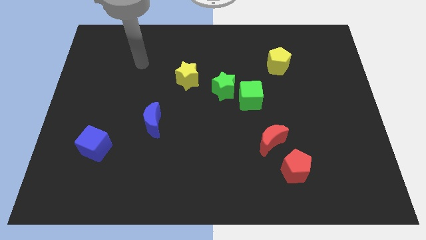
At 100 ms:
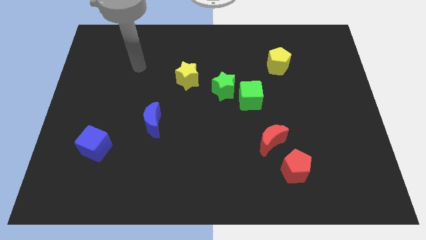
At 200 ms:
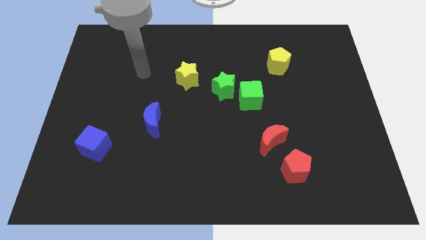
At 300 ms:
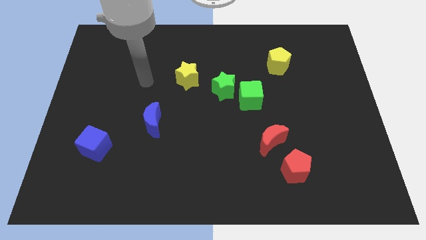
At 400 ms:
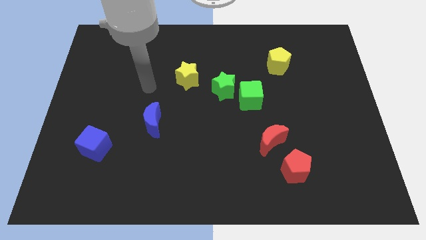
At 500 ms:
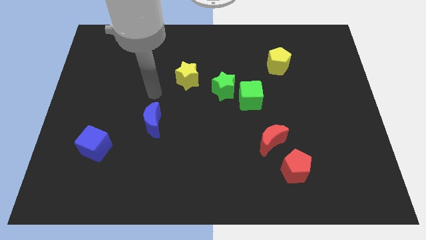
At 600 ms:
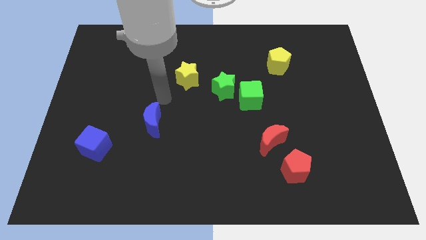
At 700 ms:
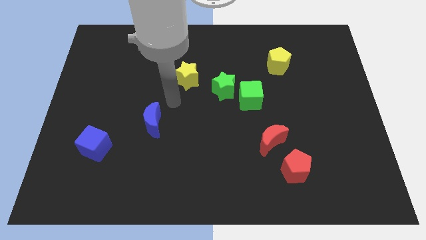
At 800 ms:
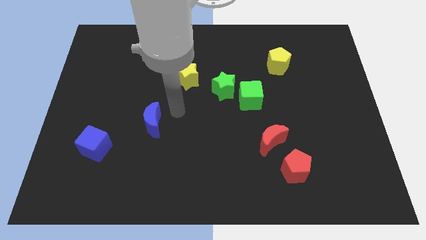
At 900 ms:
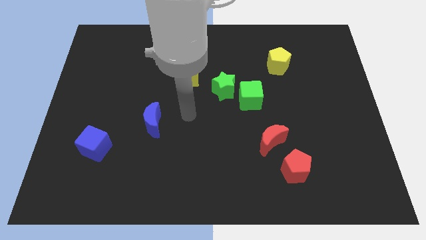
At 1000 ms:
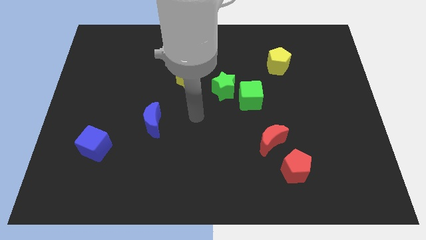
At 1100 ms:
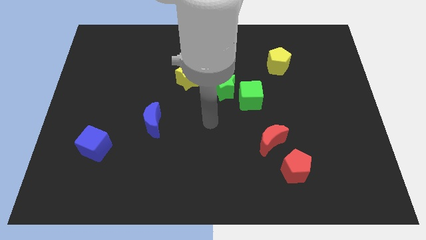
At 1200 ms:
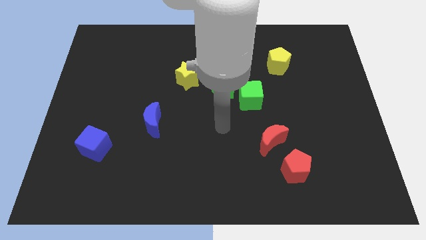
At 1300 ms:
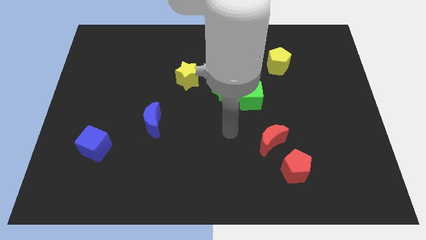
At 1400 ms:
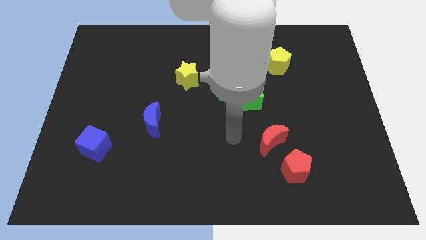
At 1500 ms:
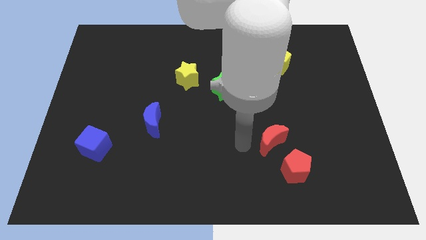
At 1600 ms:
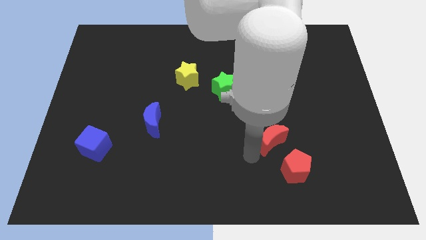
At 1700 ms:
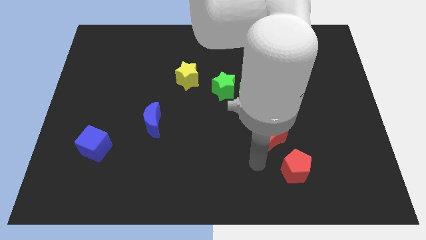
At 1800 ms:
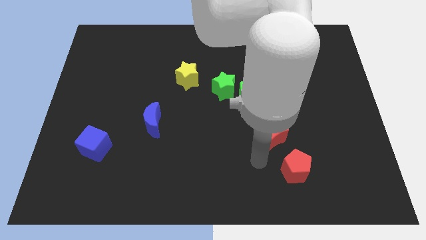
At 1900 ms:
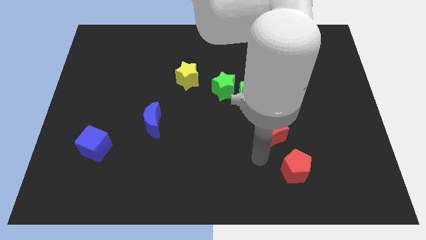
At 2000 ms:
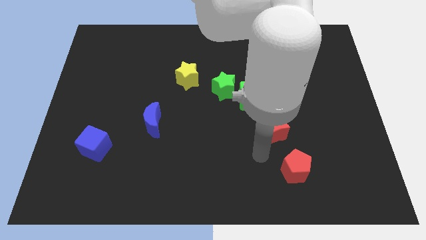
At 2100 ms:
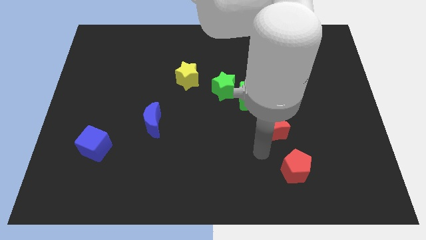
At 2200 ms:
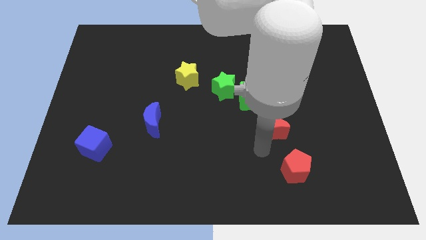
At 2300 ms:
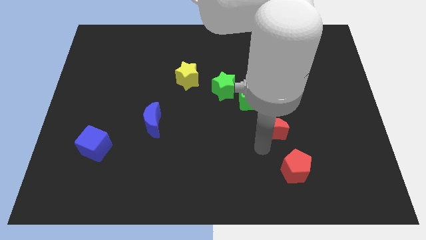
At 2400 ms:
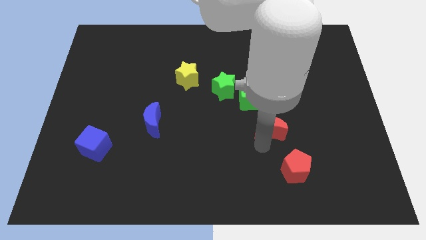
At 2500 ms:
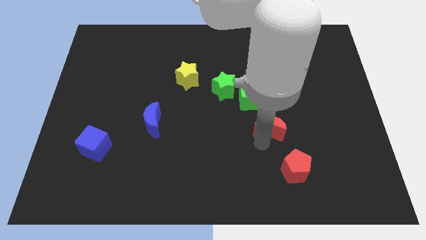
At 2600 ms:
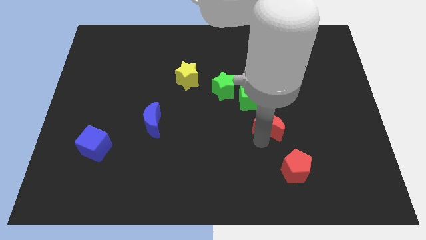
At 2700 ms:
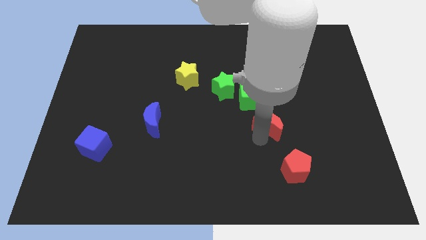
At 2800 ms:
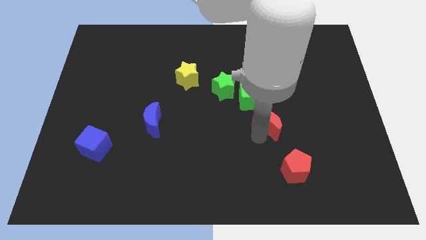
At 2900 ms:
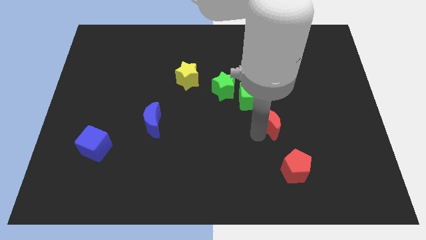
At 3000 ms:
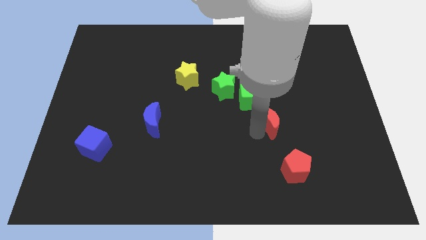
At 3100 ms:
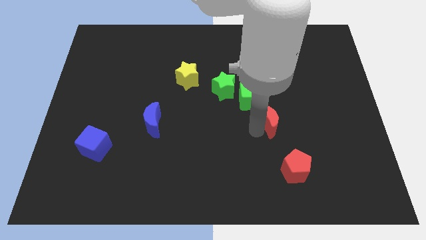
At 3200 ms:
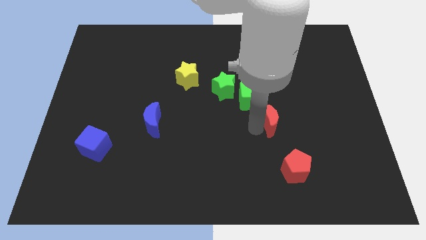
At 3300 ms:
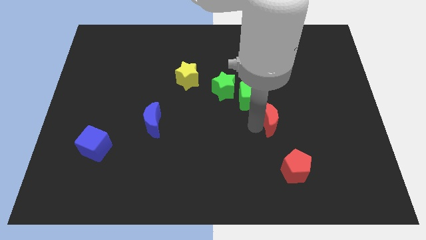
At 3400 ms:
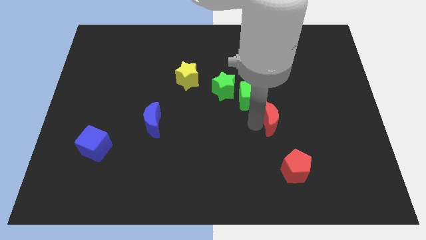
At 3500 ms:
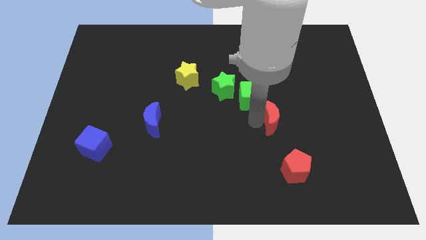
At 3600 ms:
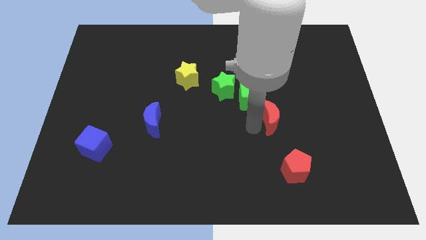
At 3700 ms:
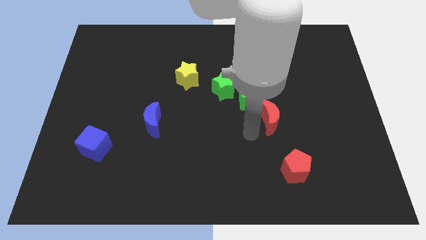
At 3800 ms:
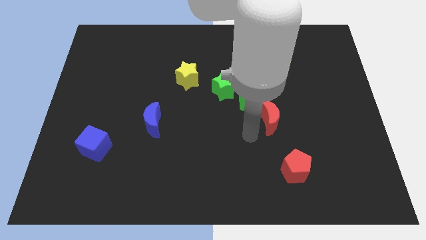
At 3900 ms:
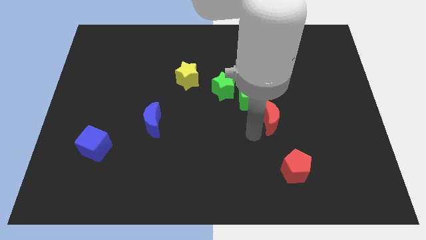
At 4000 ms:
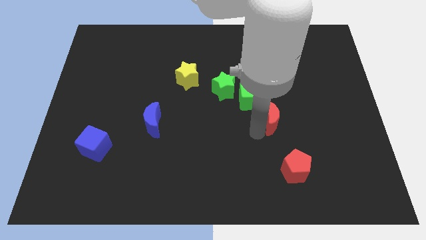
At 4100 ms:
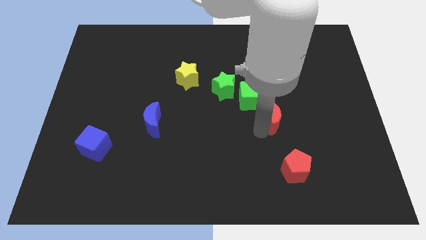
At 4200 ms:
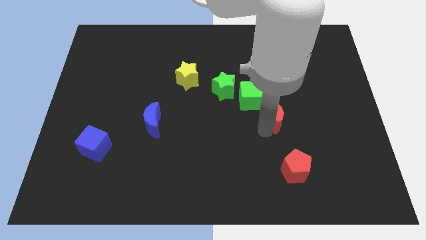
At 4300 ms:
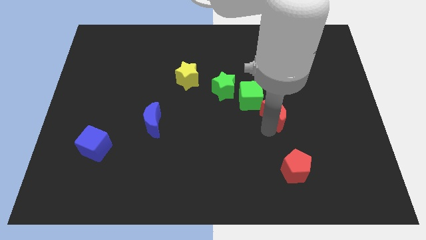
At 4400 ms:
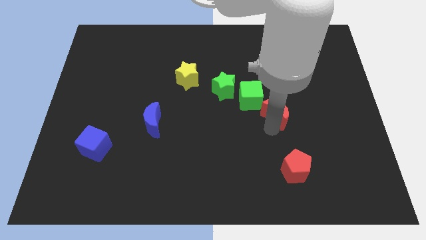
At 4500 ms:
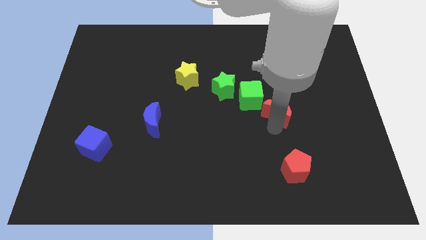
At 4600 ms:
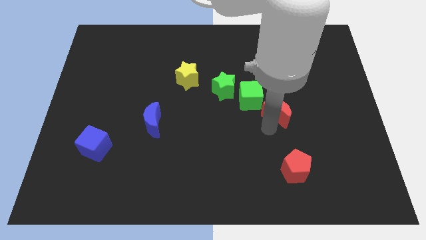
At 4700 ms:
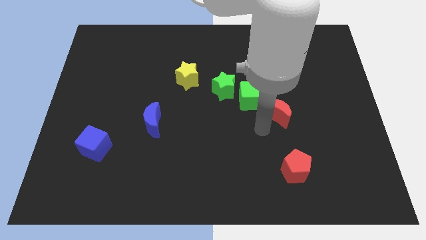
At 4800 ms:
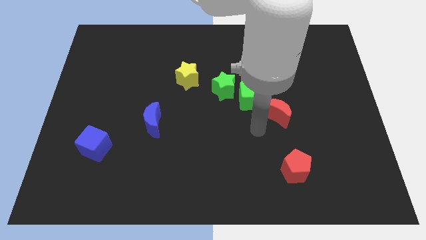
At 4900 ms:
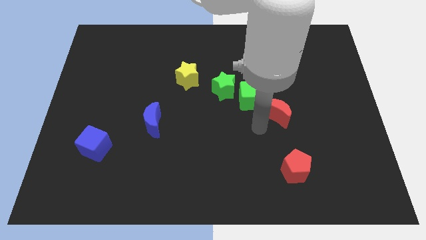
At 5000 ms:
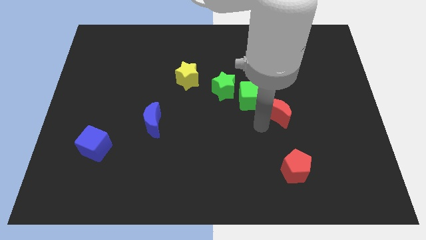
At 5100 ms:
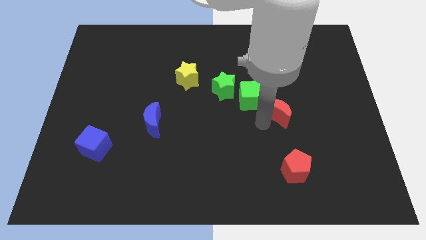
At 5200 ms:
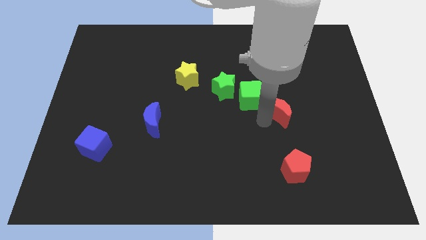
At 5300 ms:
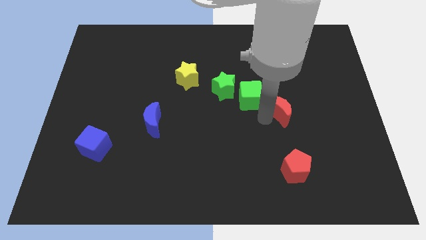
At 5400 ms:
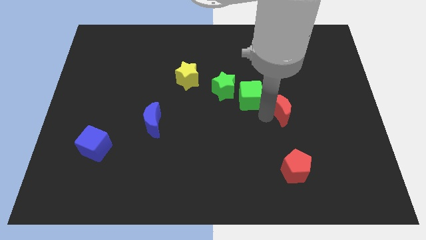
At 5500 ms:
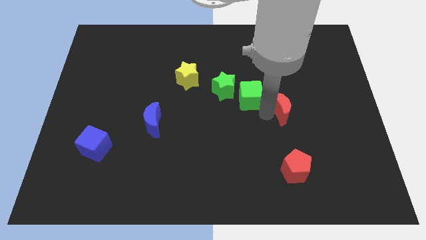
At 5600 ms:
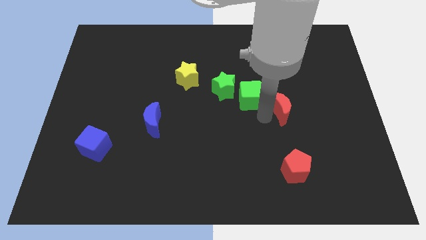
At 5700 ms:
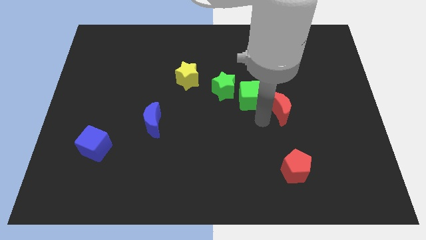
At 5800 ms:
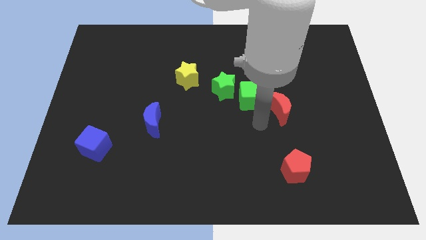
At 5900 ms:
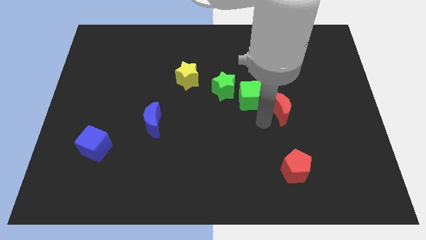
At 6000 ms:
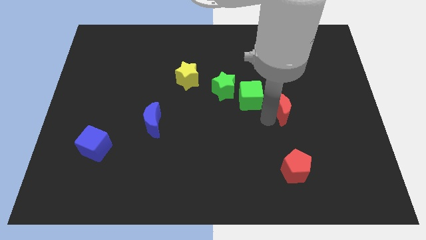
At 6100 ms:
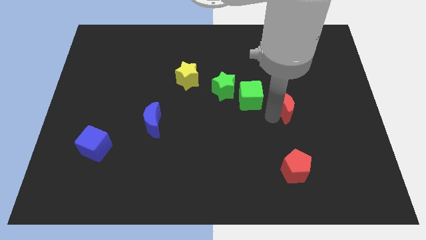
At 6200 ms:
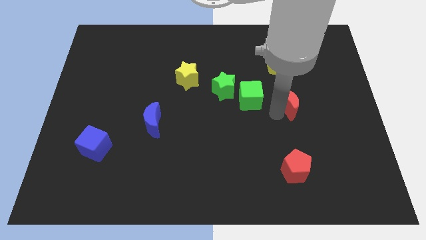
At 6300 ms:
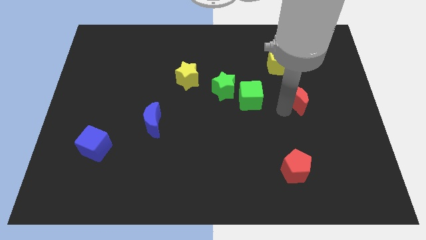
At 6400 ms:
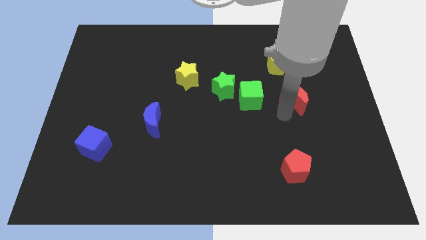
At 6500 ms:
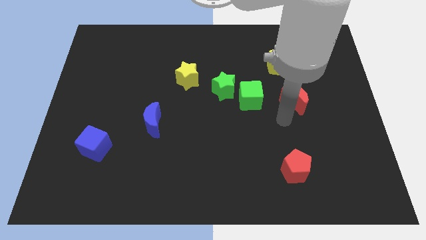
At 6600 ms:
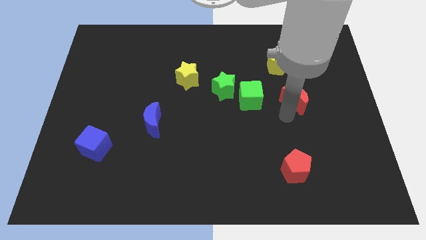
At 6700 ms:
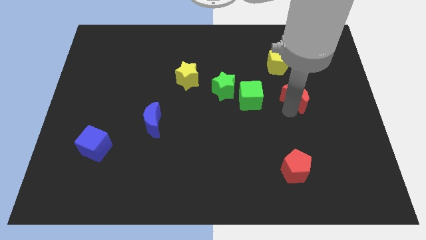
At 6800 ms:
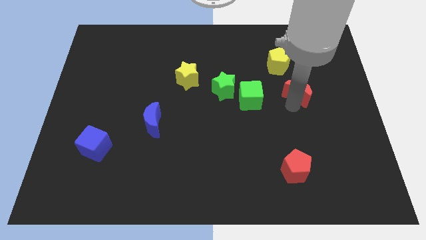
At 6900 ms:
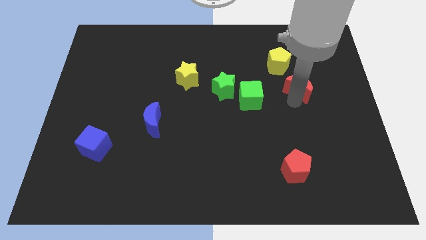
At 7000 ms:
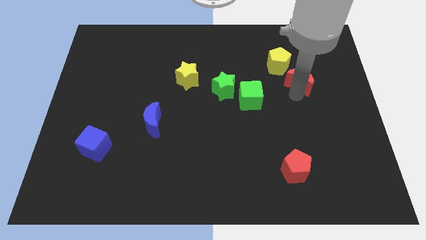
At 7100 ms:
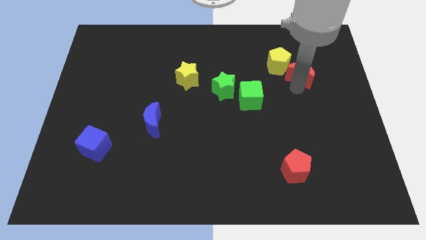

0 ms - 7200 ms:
push the red moon to the right side of the yellow pentagon

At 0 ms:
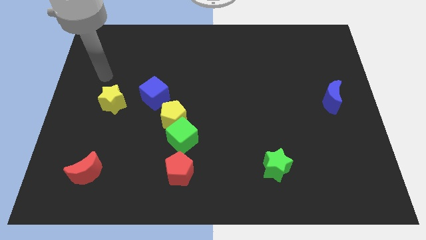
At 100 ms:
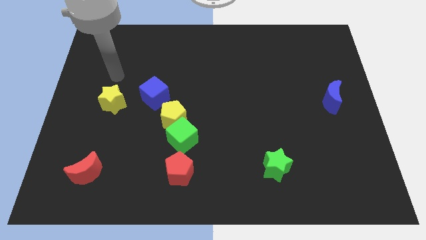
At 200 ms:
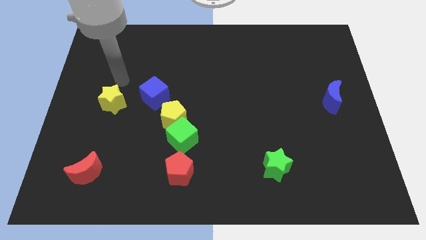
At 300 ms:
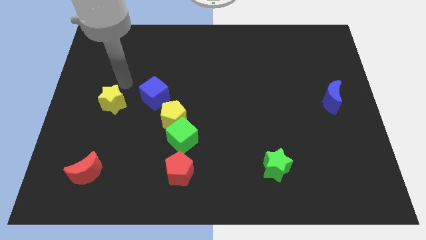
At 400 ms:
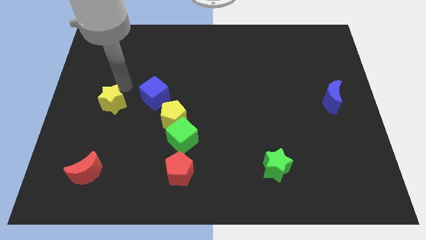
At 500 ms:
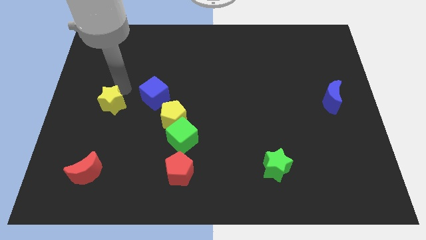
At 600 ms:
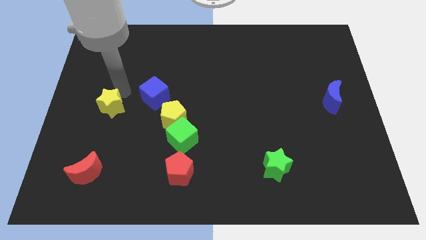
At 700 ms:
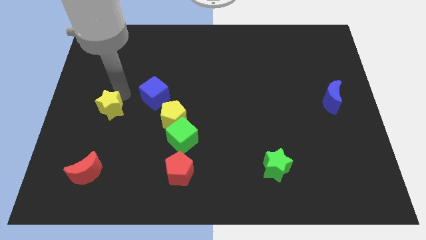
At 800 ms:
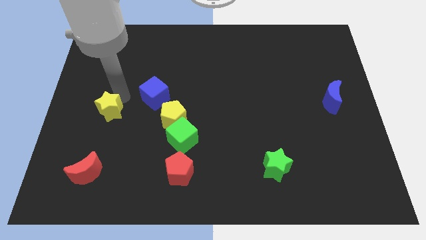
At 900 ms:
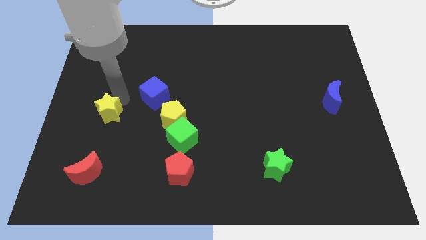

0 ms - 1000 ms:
slide the yellow star to the top side of the red moon
